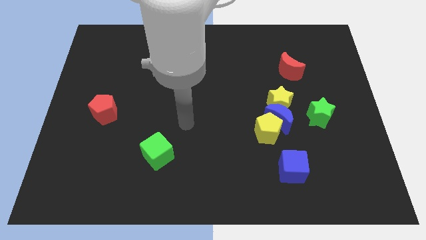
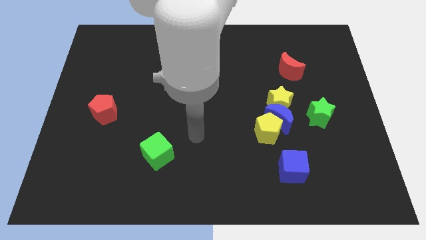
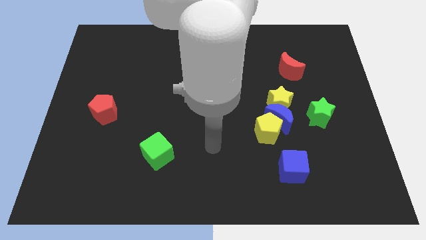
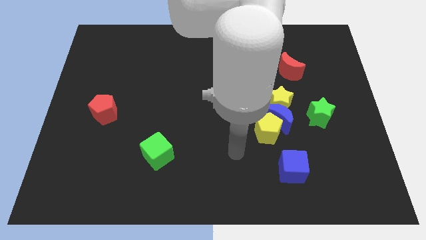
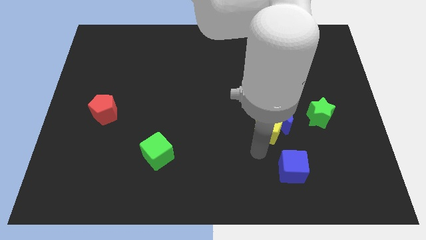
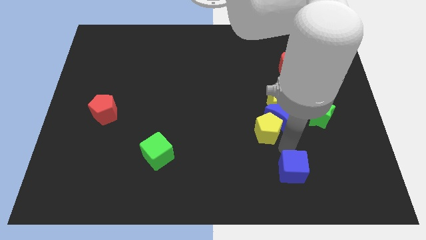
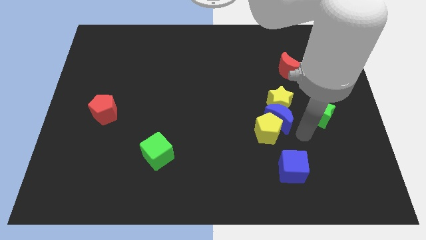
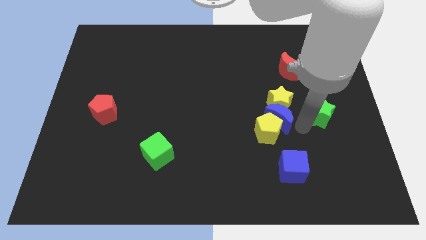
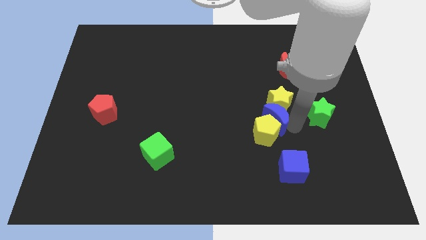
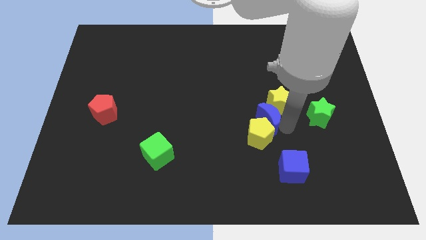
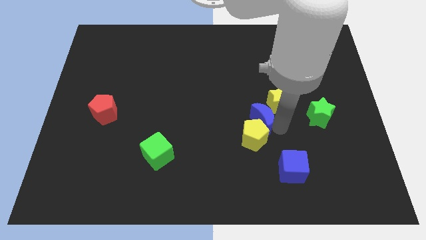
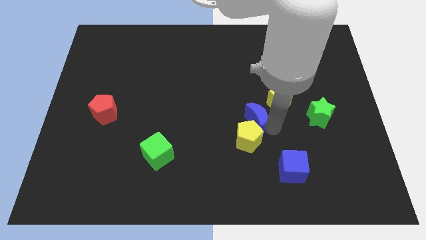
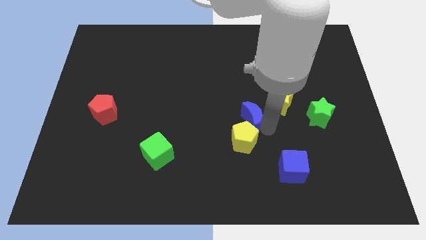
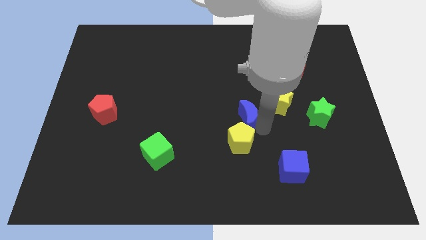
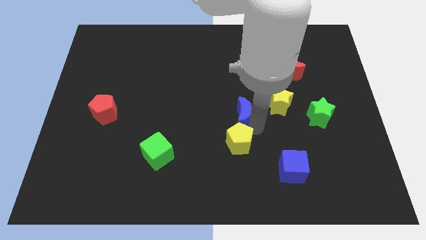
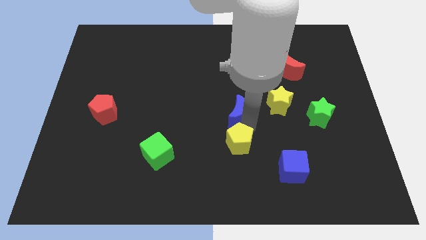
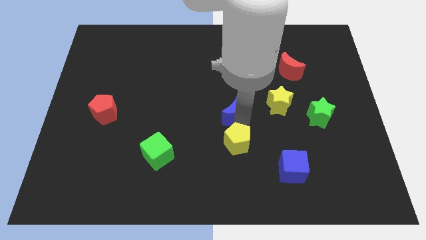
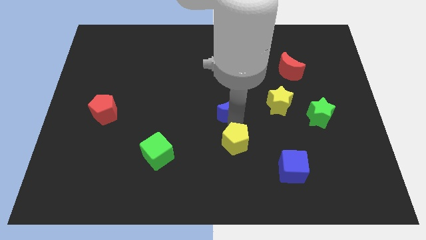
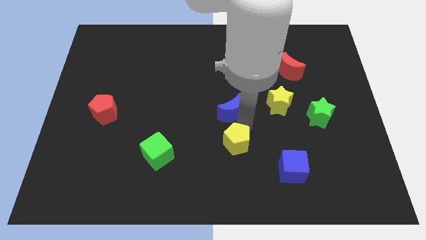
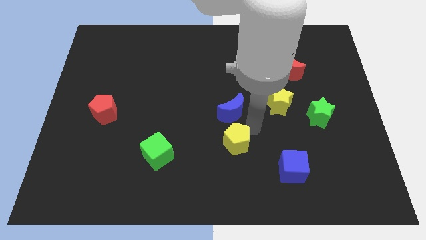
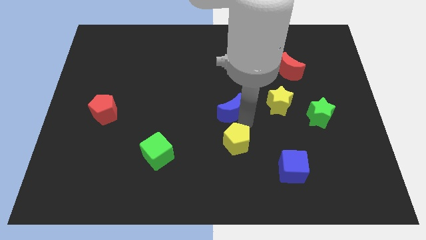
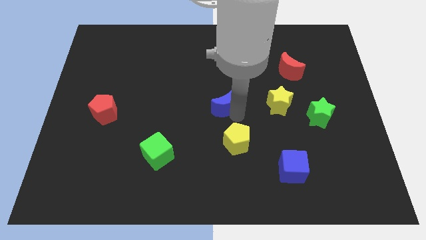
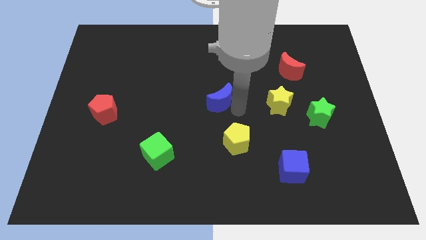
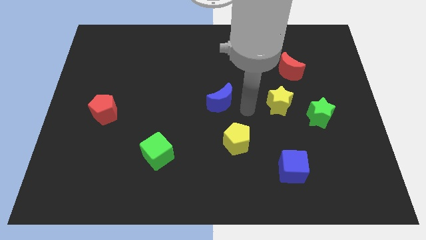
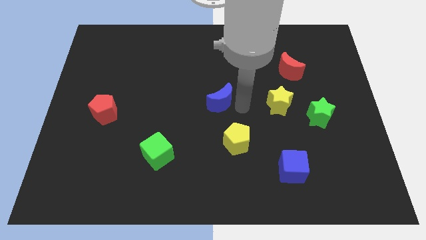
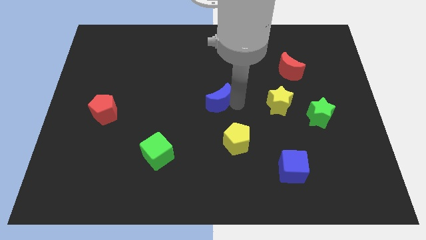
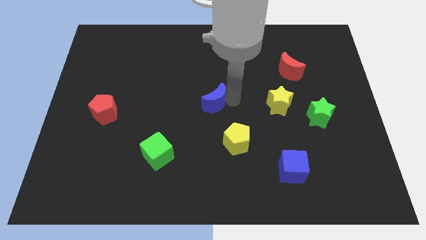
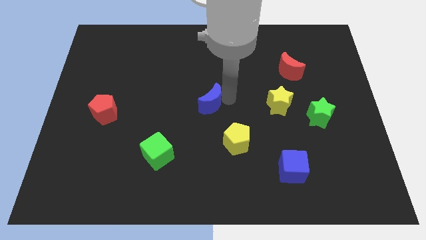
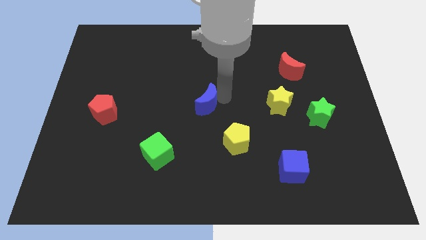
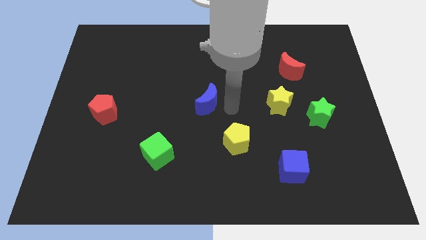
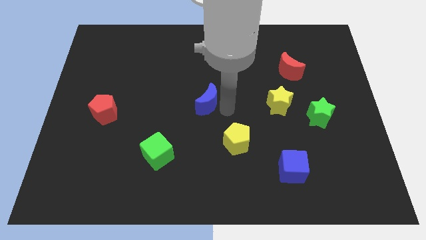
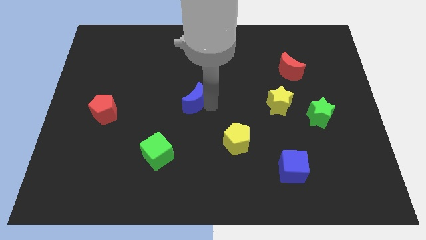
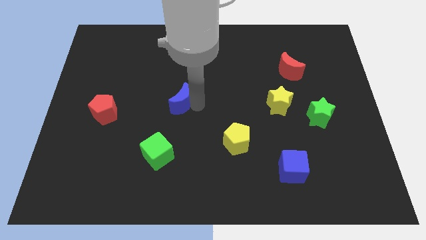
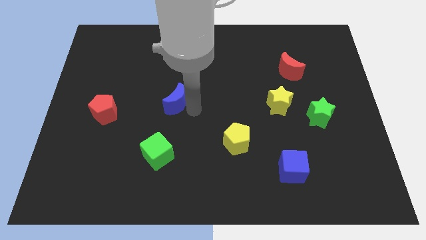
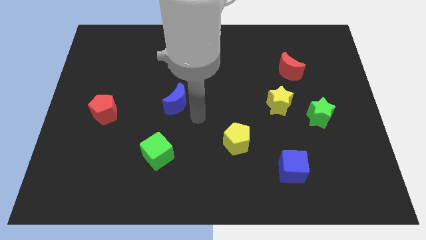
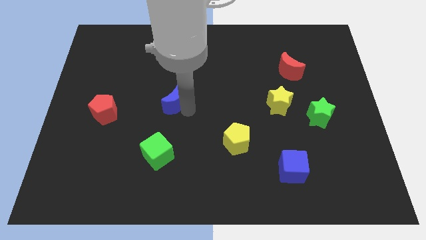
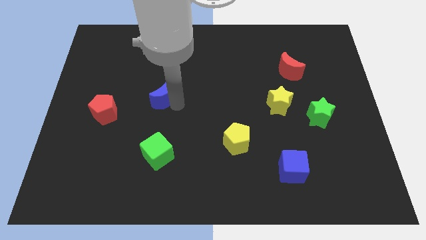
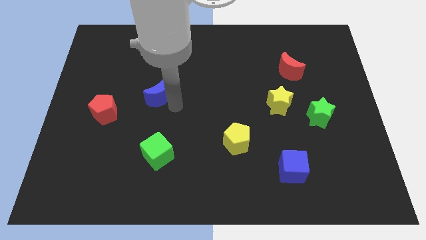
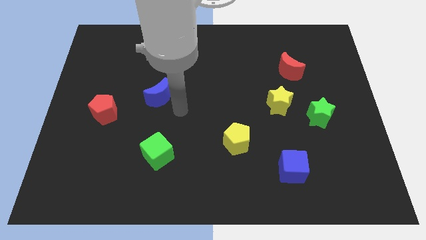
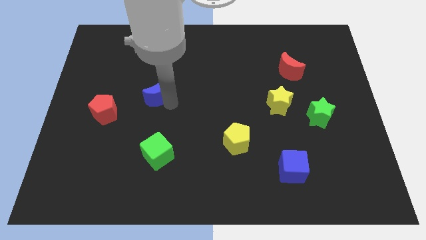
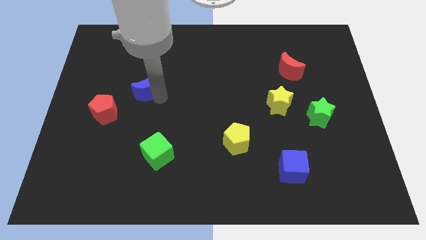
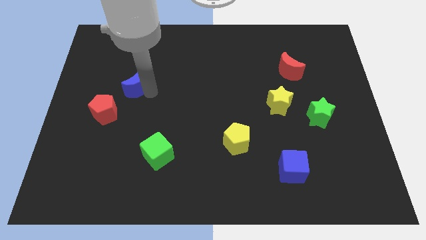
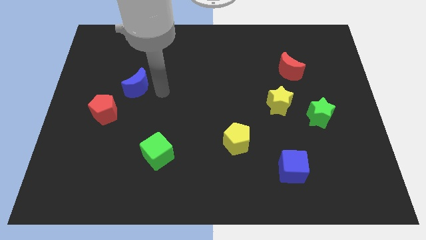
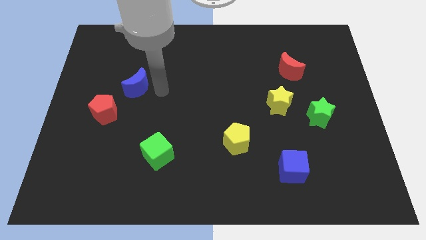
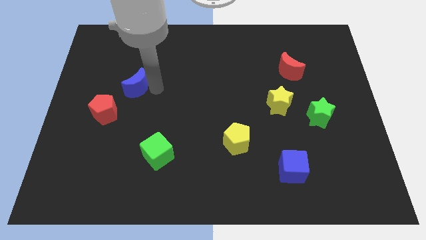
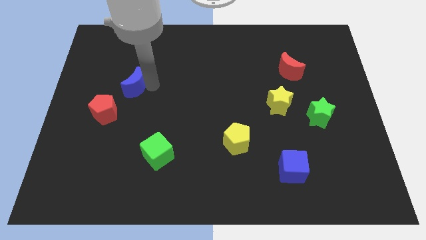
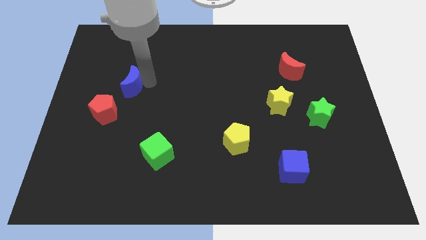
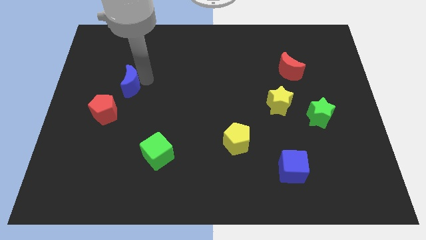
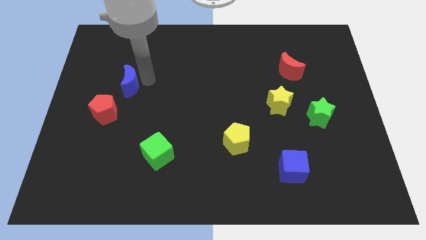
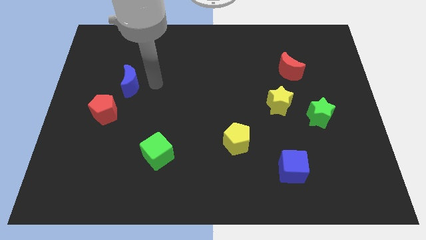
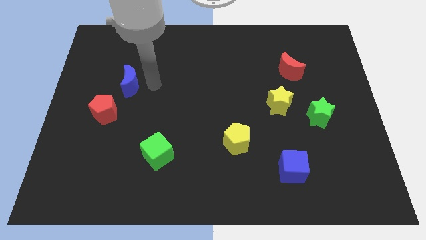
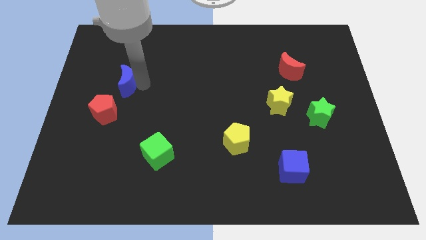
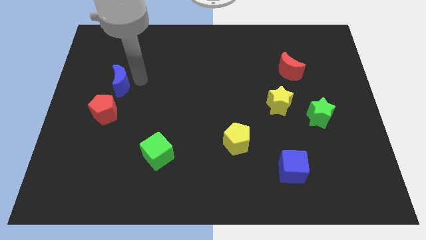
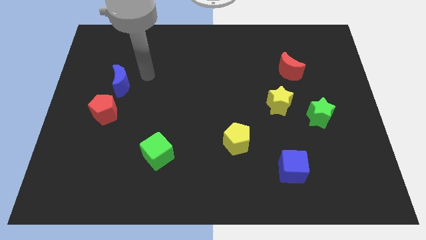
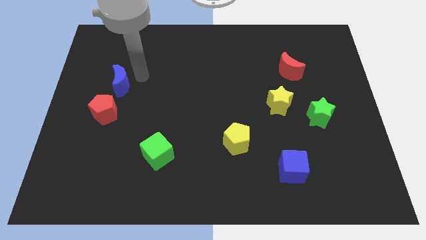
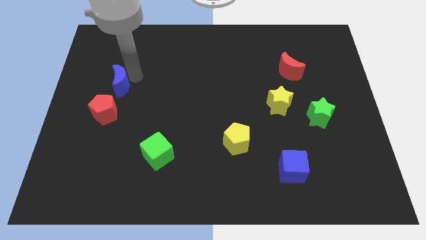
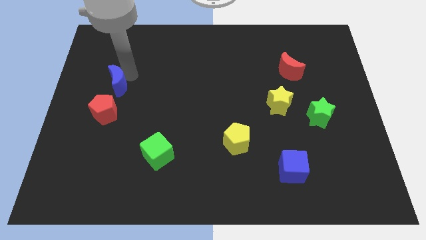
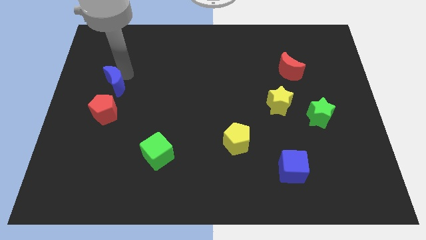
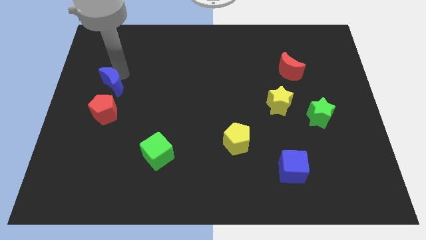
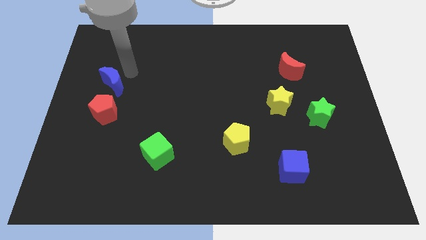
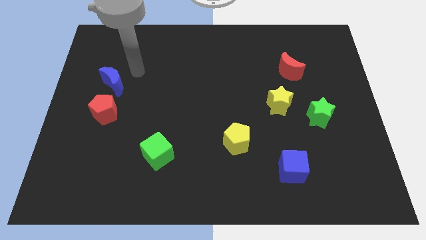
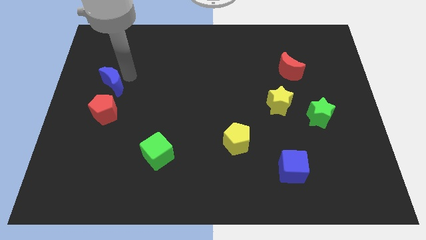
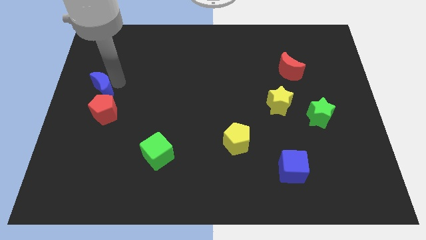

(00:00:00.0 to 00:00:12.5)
put the blue moon to the left side of the board

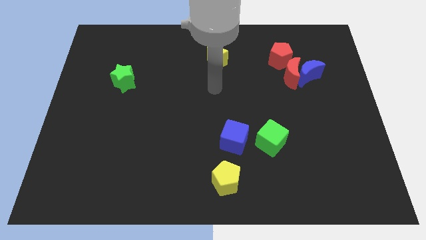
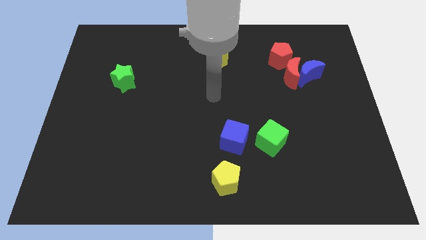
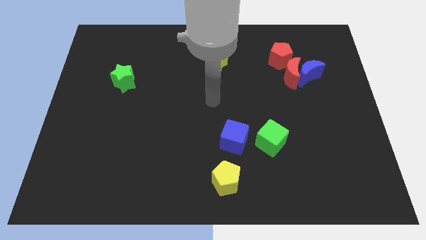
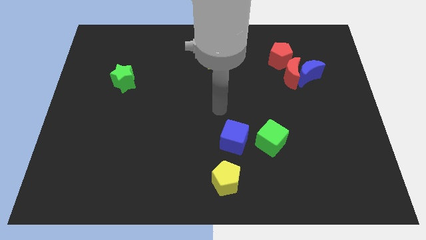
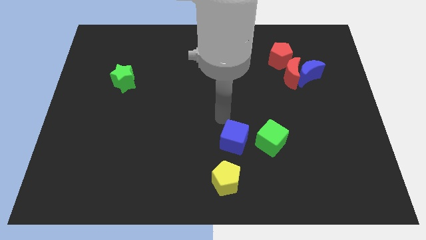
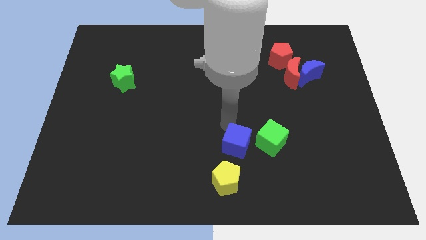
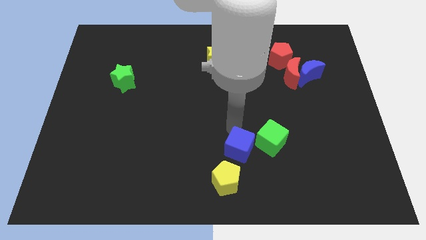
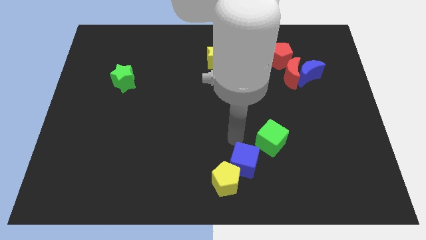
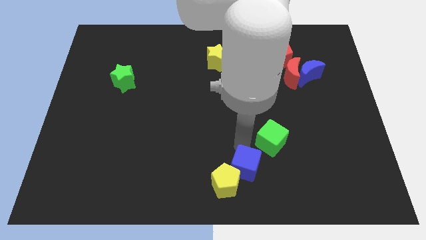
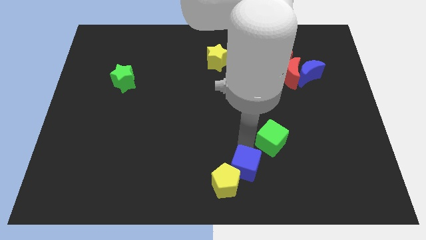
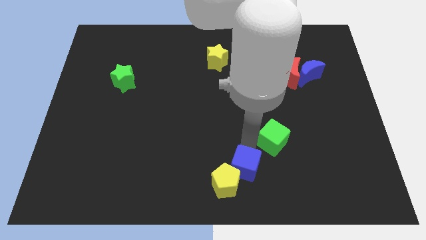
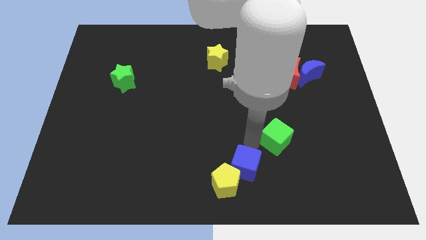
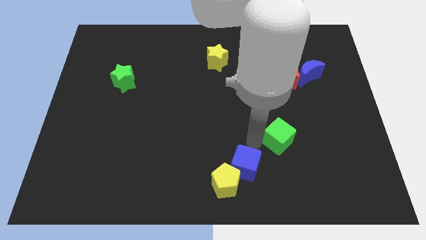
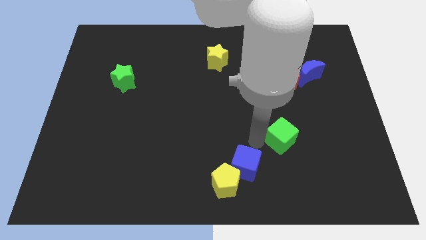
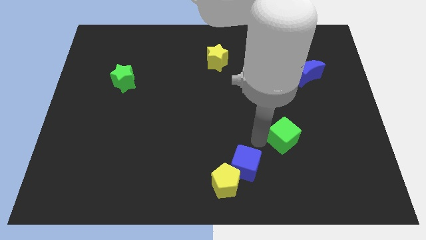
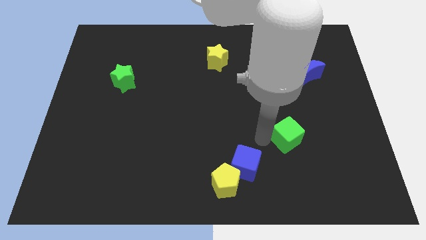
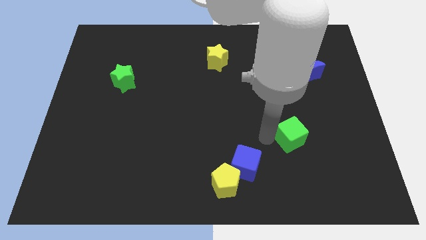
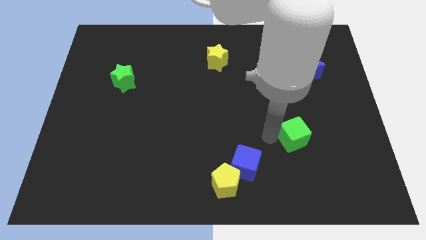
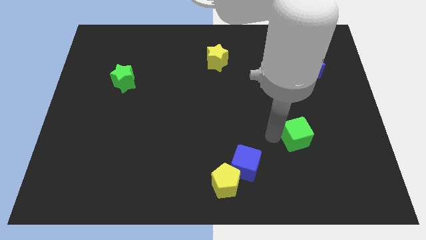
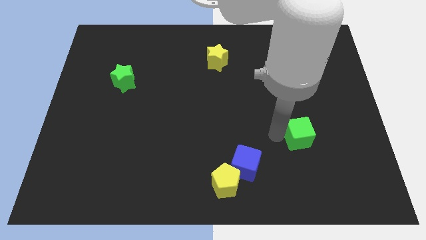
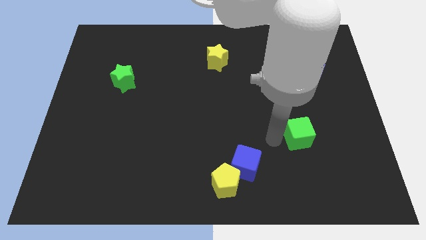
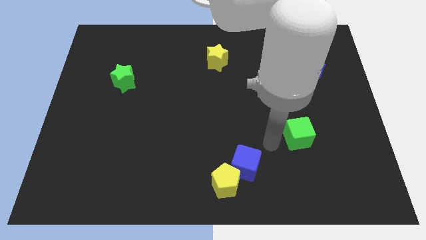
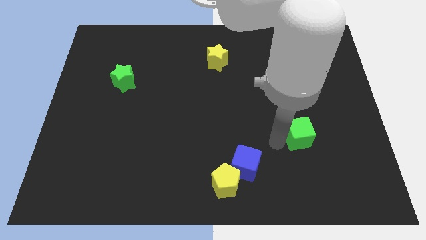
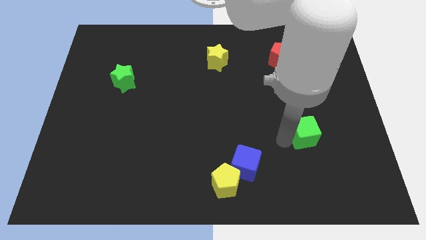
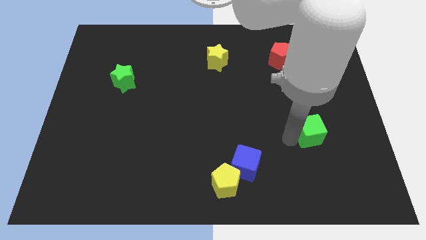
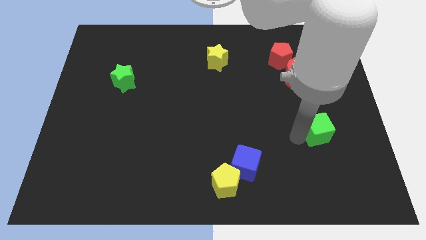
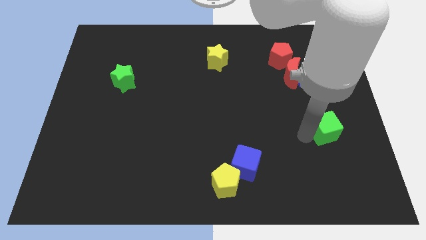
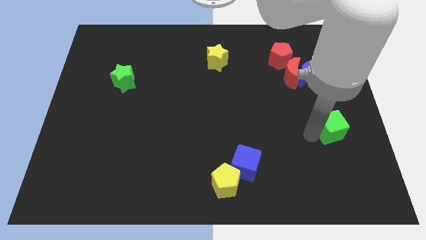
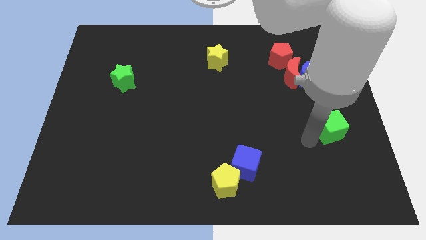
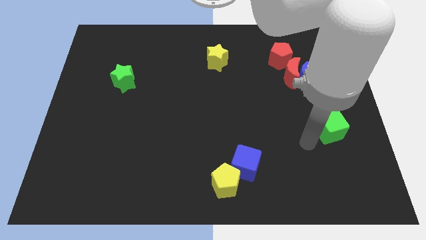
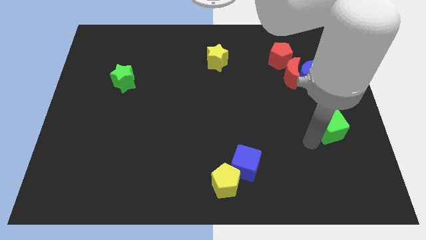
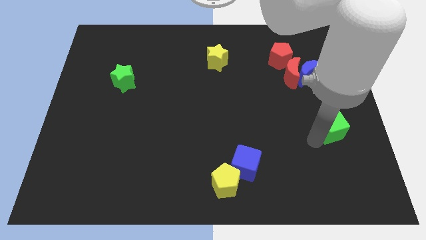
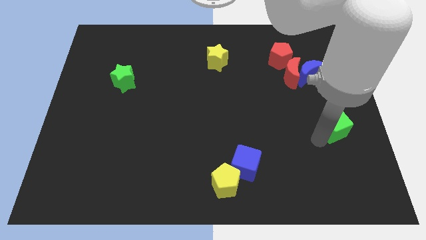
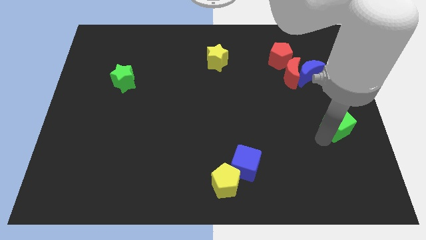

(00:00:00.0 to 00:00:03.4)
put the green cube to the right side of the board
